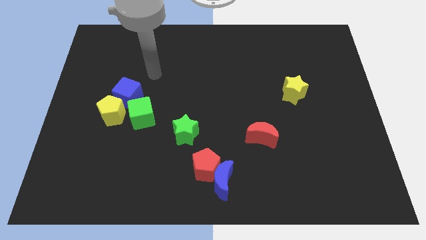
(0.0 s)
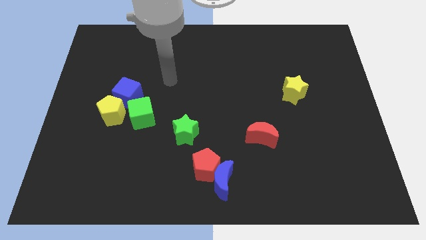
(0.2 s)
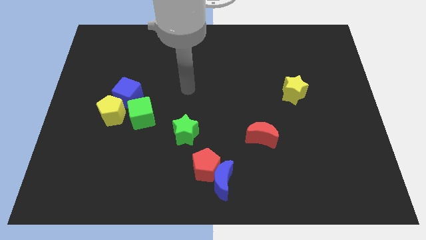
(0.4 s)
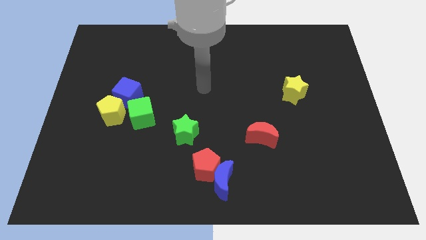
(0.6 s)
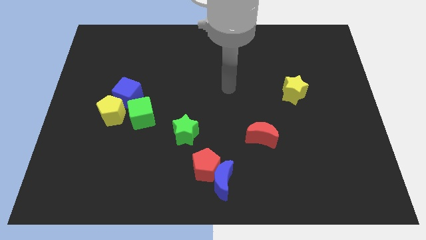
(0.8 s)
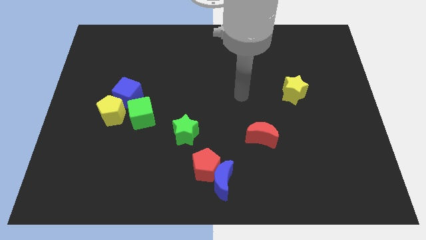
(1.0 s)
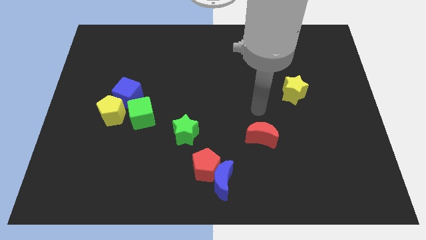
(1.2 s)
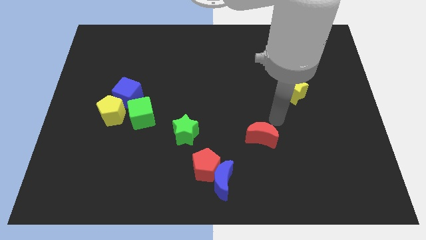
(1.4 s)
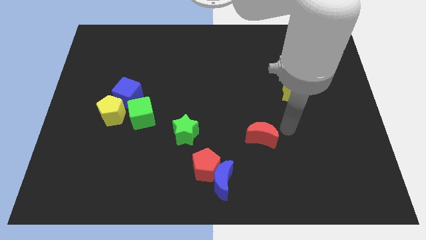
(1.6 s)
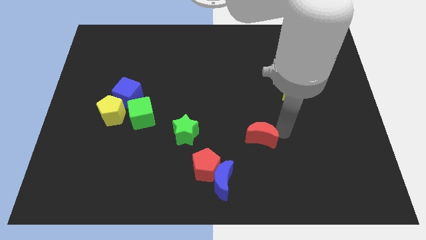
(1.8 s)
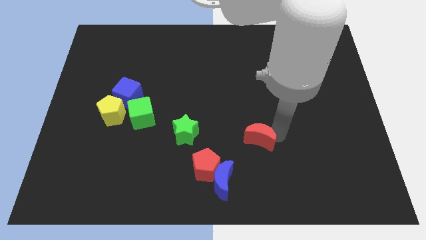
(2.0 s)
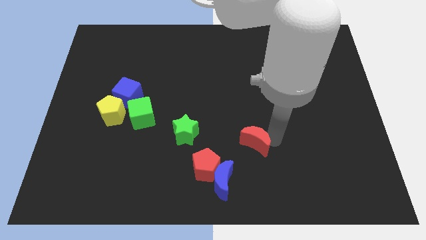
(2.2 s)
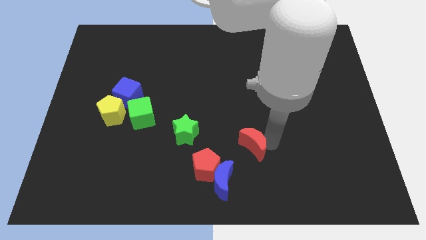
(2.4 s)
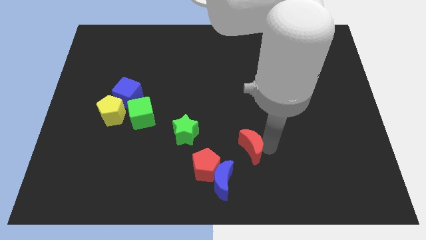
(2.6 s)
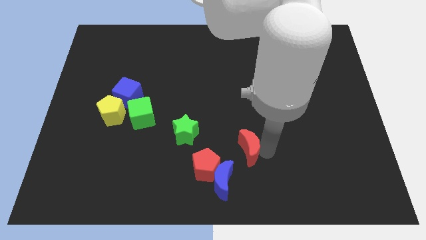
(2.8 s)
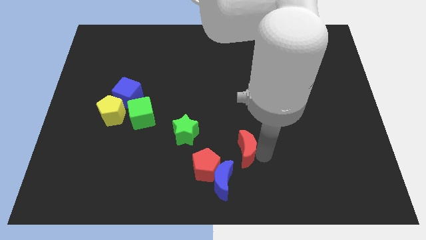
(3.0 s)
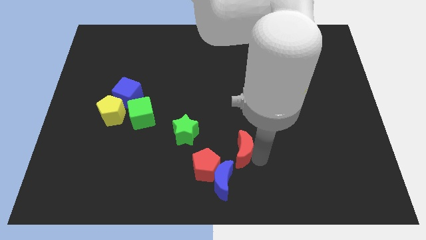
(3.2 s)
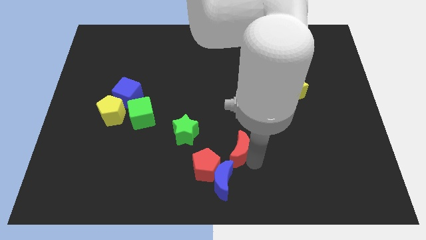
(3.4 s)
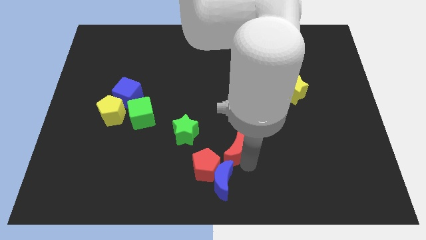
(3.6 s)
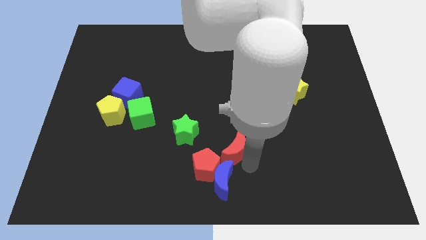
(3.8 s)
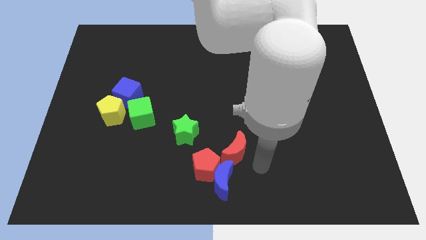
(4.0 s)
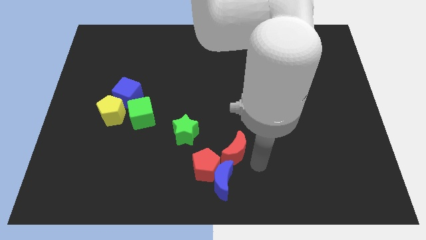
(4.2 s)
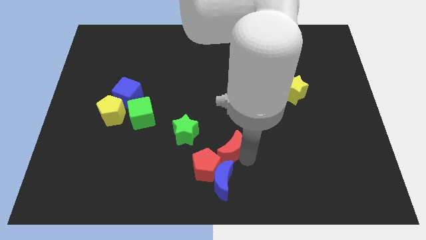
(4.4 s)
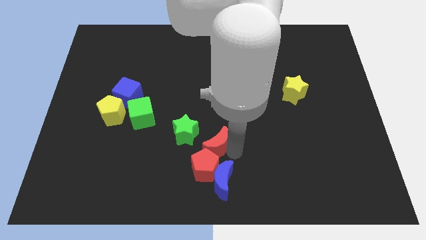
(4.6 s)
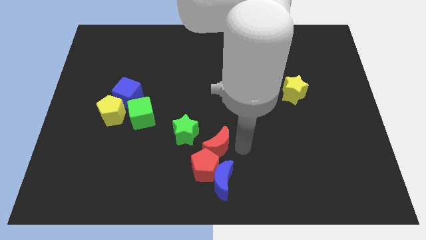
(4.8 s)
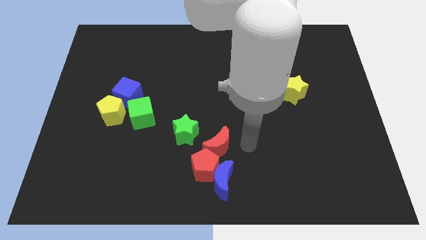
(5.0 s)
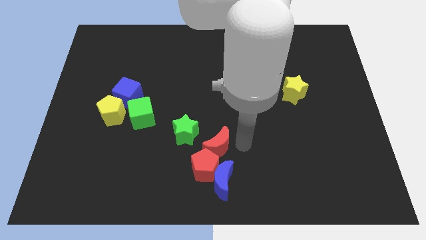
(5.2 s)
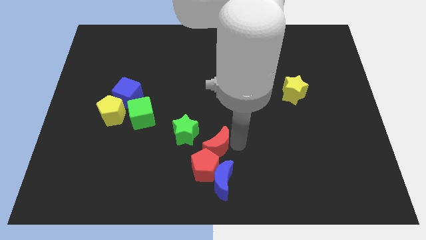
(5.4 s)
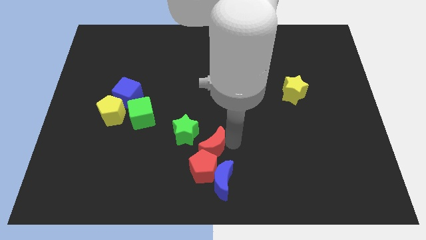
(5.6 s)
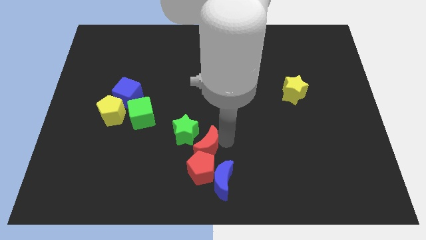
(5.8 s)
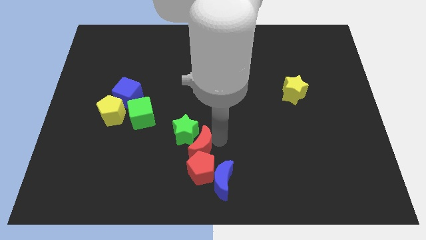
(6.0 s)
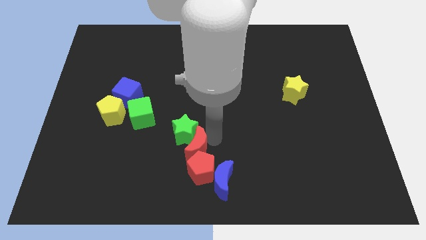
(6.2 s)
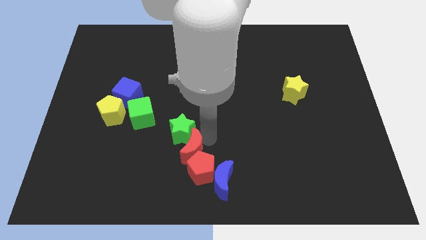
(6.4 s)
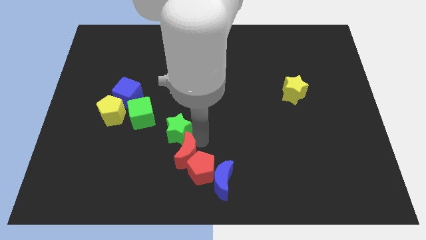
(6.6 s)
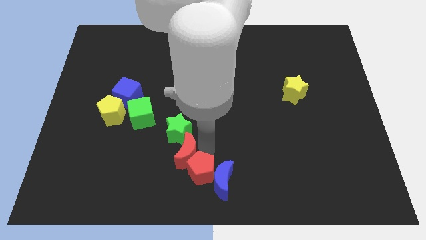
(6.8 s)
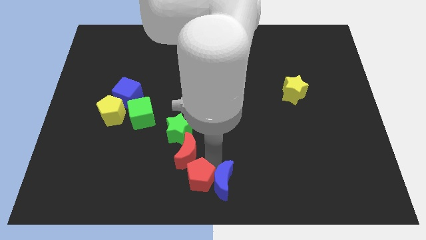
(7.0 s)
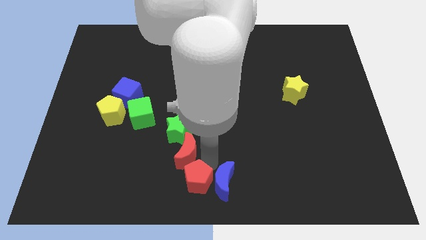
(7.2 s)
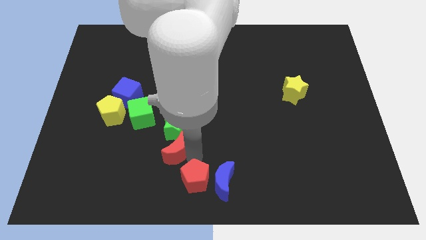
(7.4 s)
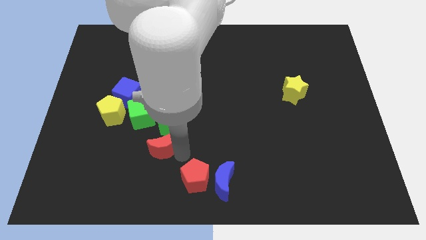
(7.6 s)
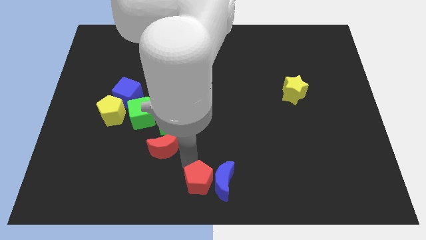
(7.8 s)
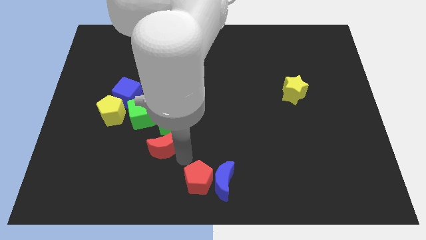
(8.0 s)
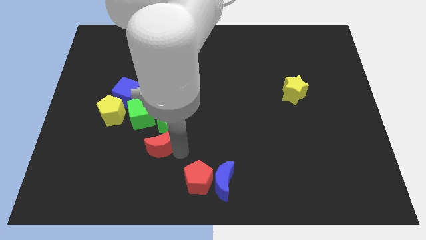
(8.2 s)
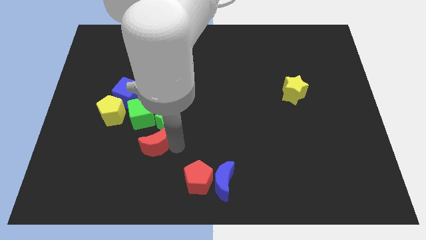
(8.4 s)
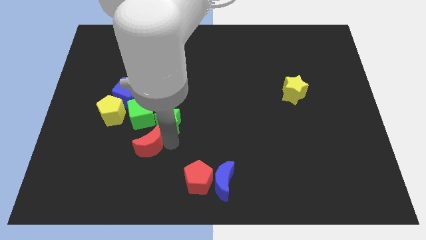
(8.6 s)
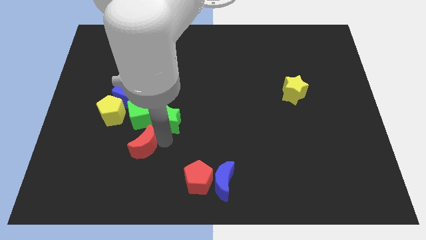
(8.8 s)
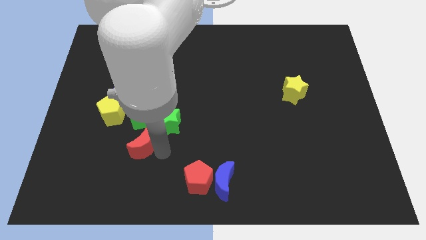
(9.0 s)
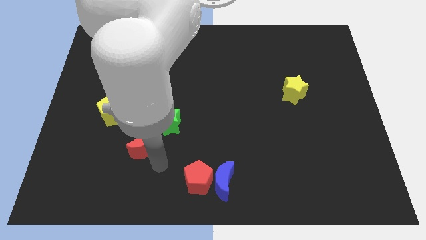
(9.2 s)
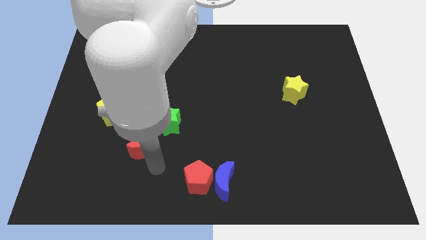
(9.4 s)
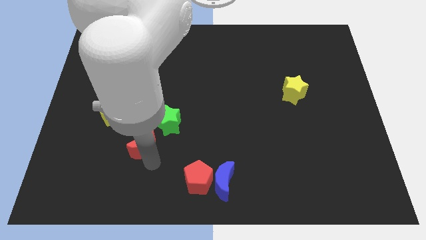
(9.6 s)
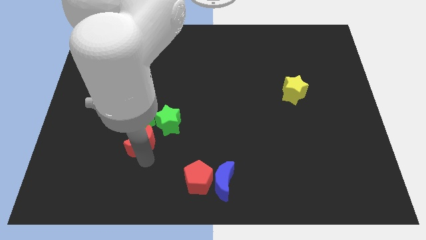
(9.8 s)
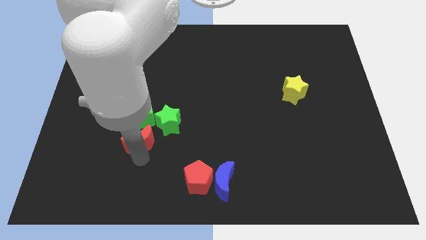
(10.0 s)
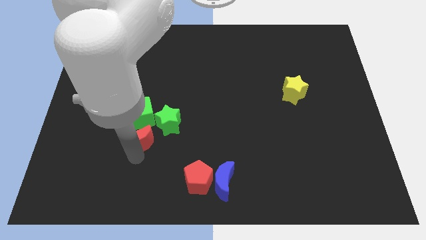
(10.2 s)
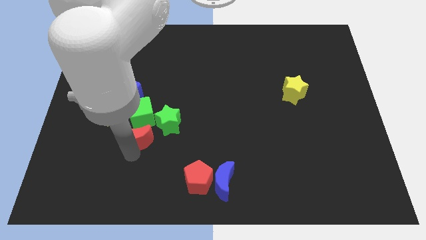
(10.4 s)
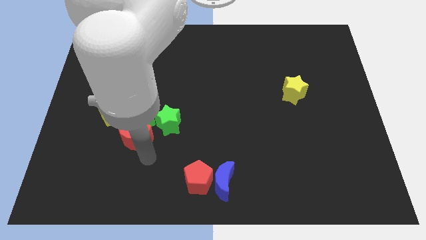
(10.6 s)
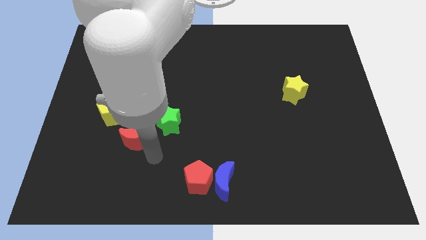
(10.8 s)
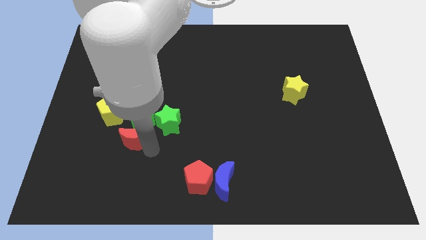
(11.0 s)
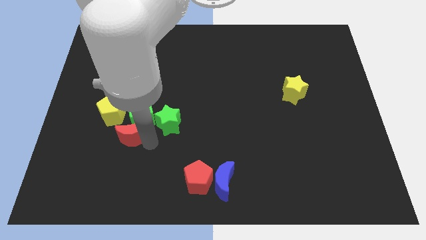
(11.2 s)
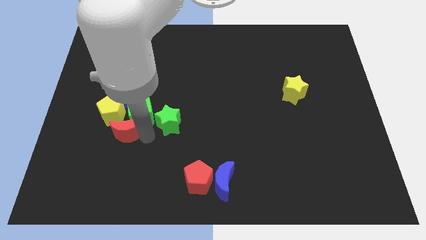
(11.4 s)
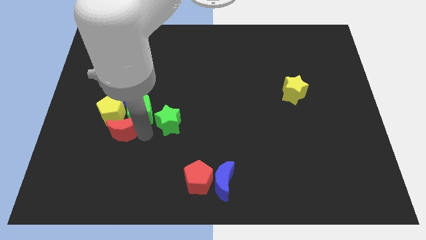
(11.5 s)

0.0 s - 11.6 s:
put the red moon to the yellow pentagon

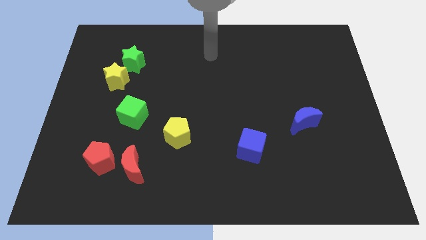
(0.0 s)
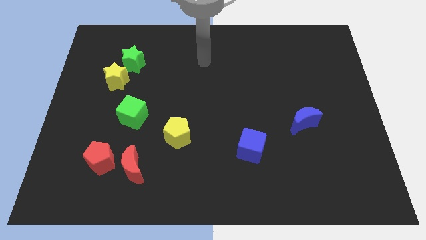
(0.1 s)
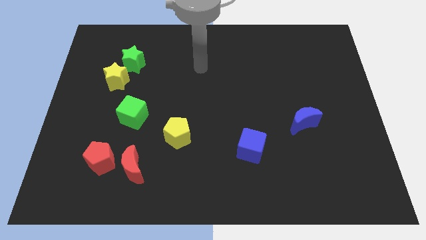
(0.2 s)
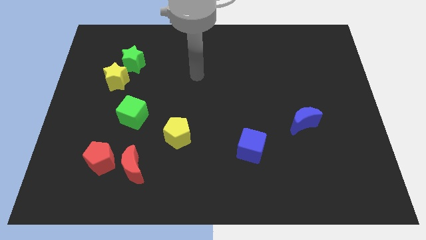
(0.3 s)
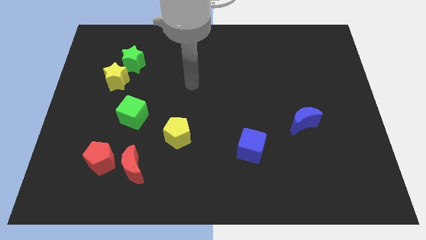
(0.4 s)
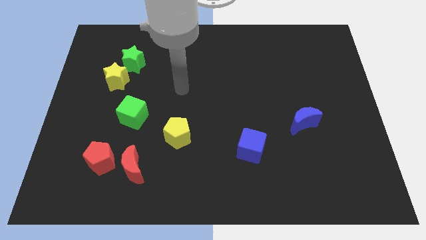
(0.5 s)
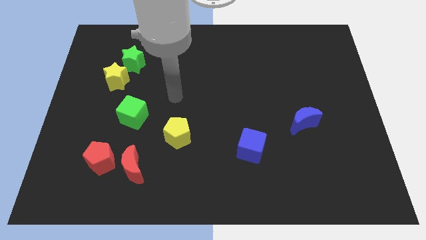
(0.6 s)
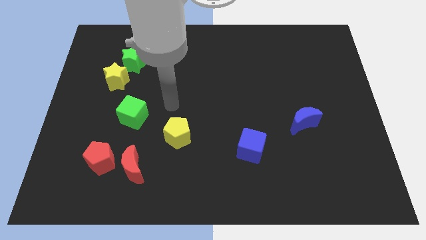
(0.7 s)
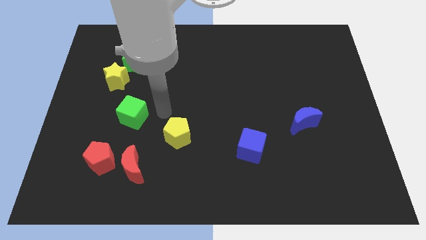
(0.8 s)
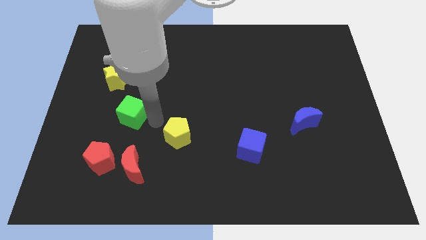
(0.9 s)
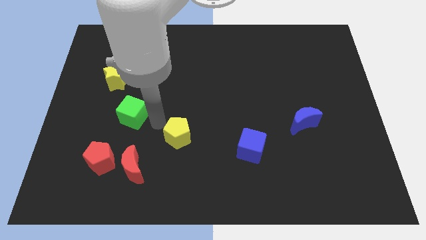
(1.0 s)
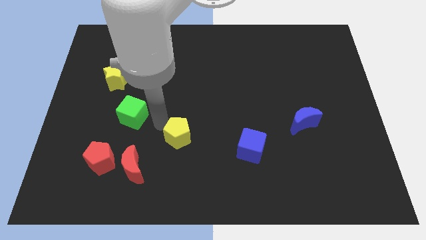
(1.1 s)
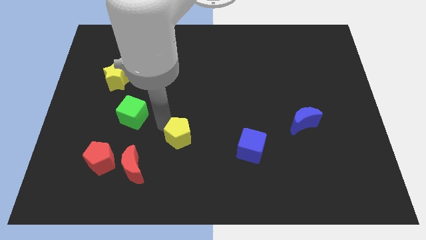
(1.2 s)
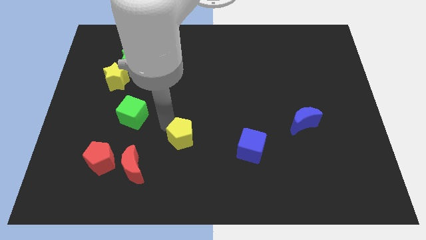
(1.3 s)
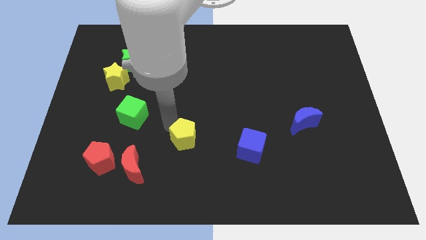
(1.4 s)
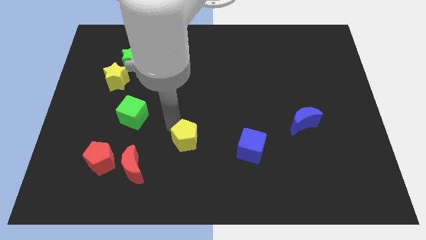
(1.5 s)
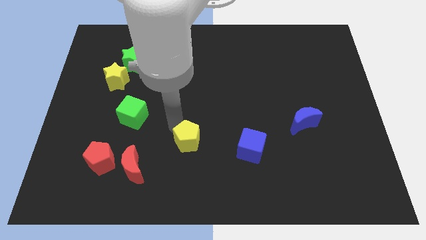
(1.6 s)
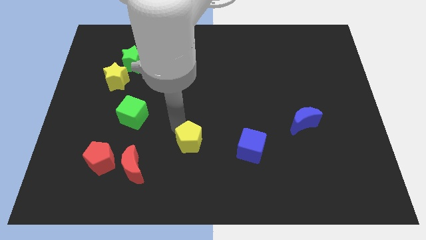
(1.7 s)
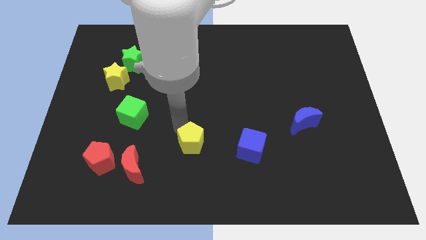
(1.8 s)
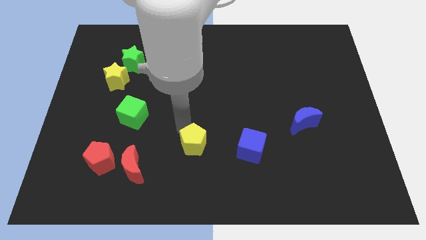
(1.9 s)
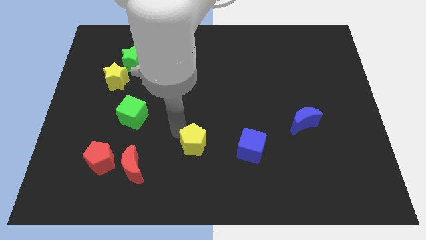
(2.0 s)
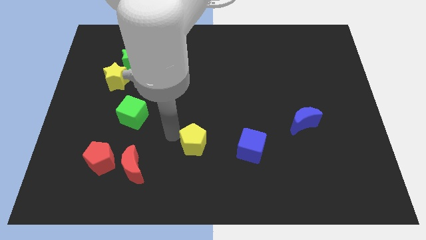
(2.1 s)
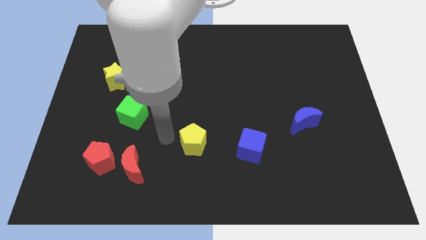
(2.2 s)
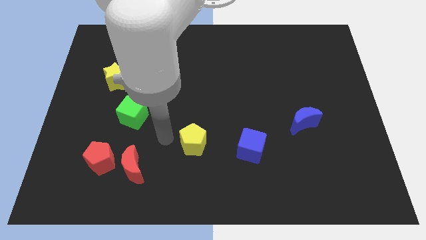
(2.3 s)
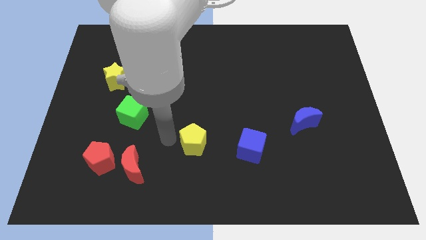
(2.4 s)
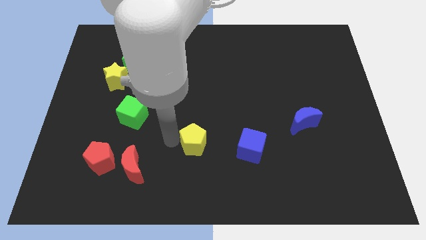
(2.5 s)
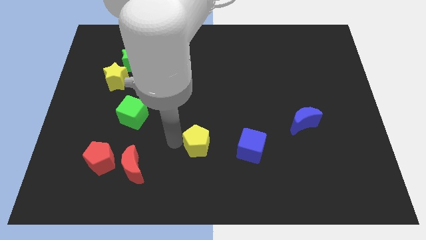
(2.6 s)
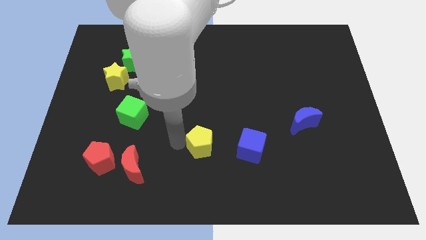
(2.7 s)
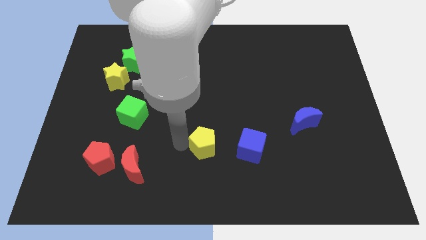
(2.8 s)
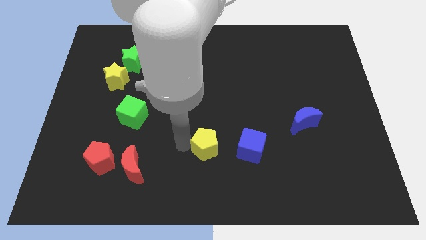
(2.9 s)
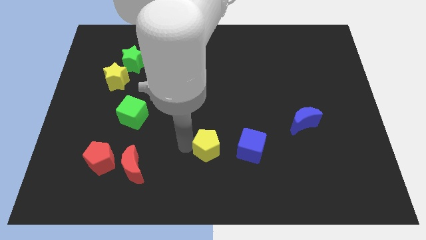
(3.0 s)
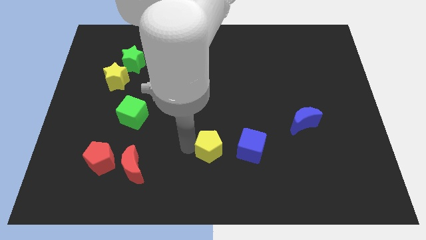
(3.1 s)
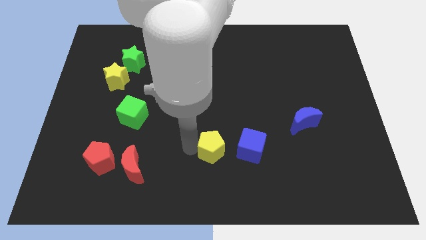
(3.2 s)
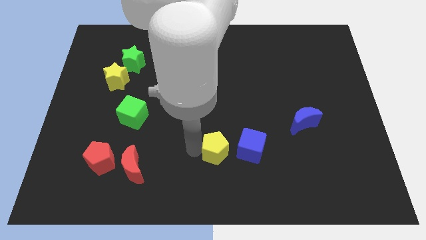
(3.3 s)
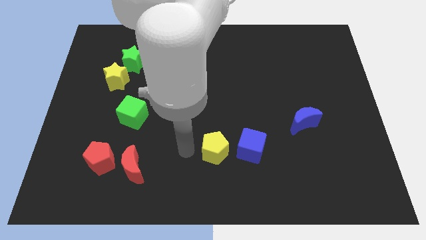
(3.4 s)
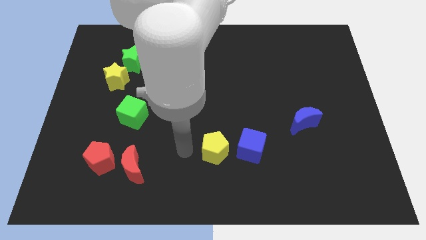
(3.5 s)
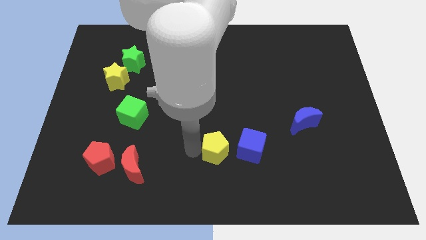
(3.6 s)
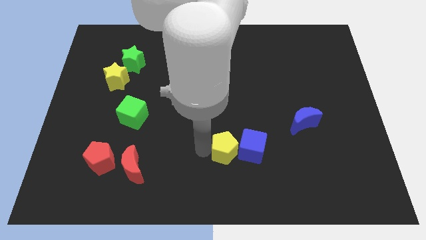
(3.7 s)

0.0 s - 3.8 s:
push the yellow pentagon close to the blue cube
